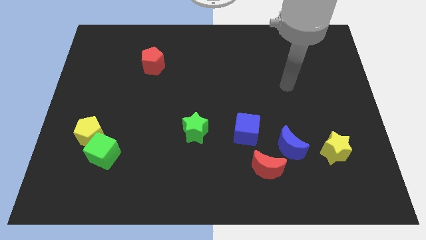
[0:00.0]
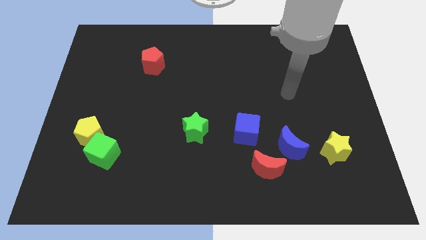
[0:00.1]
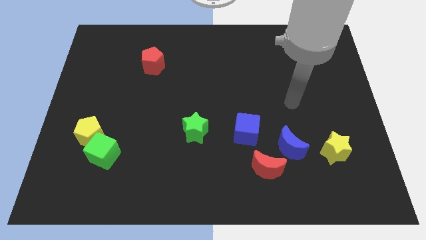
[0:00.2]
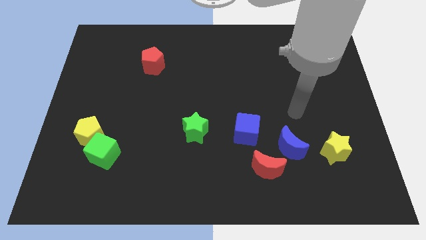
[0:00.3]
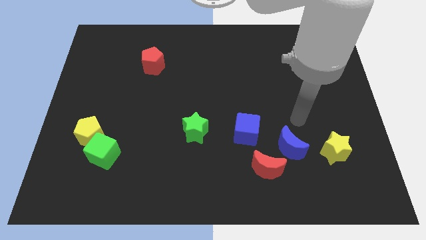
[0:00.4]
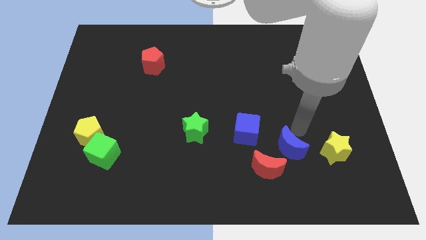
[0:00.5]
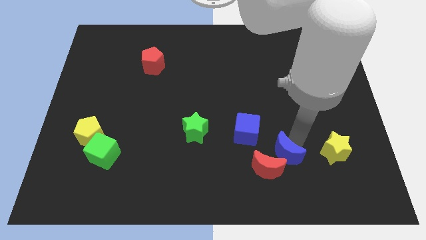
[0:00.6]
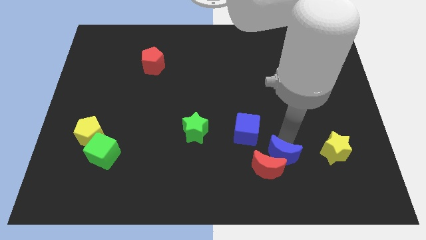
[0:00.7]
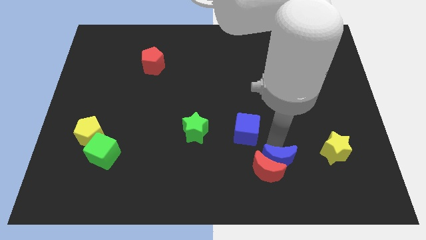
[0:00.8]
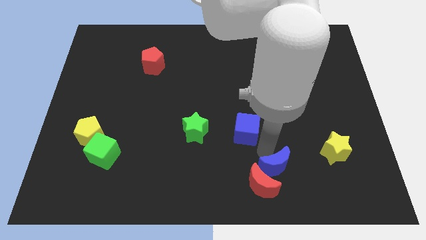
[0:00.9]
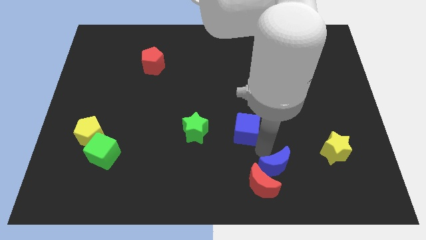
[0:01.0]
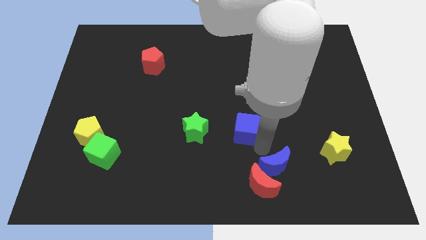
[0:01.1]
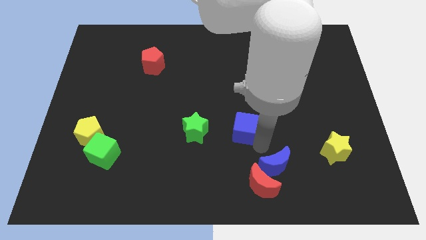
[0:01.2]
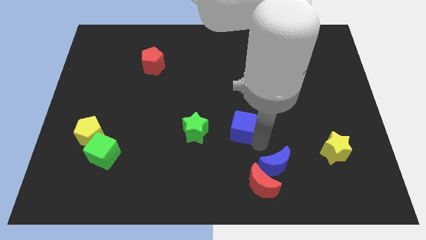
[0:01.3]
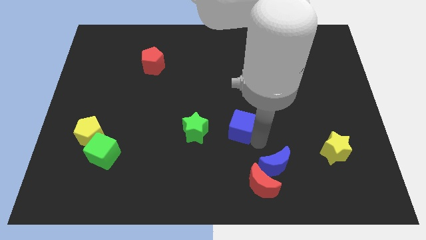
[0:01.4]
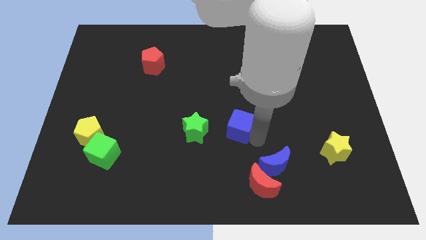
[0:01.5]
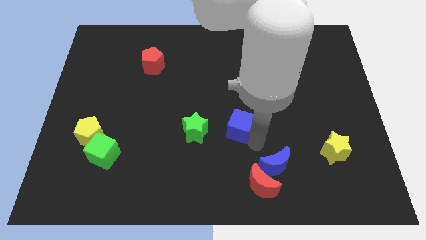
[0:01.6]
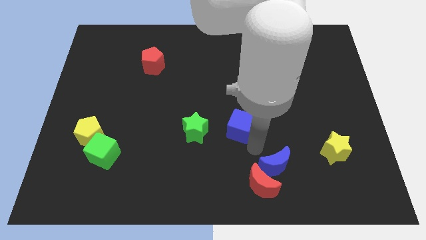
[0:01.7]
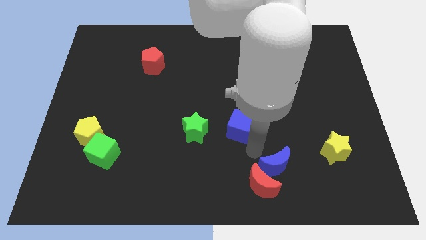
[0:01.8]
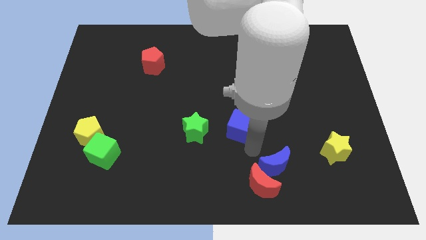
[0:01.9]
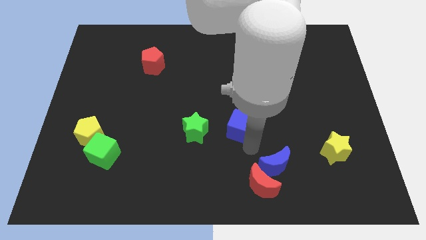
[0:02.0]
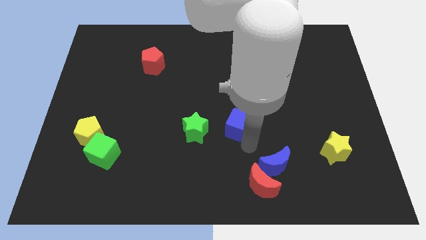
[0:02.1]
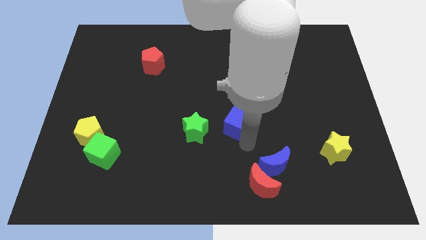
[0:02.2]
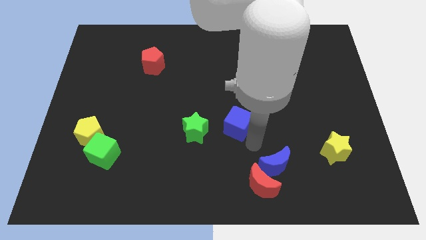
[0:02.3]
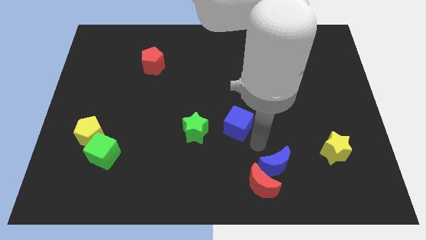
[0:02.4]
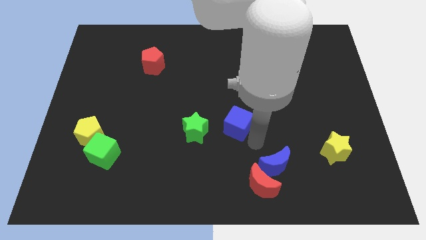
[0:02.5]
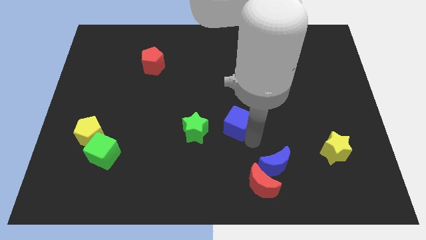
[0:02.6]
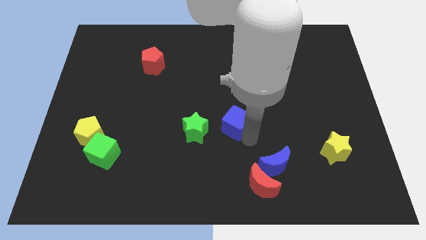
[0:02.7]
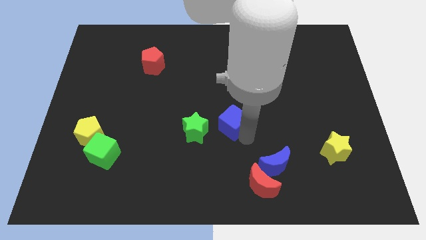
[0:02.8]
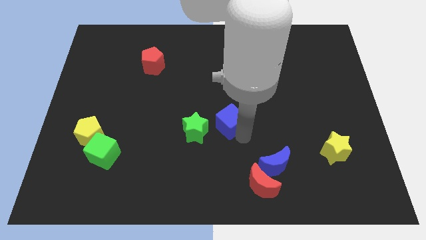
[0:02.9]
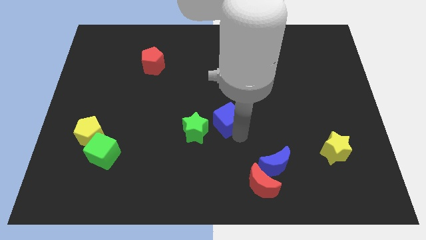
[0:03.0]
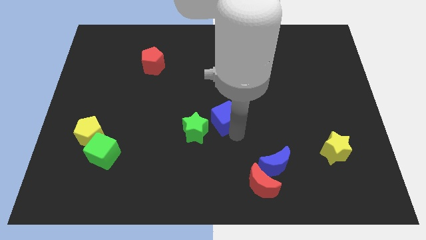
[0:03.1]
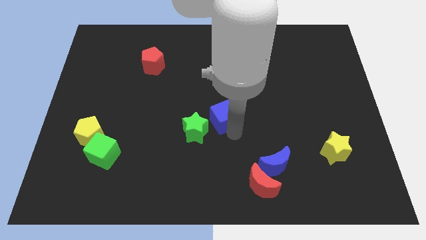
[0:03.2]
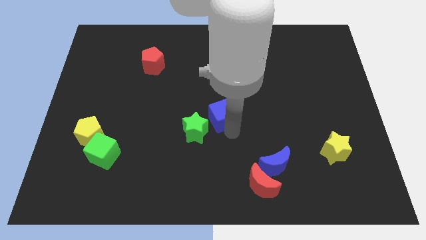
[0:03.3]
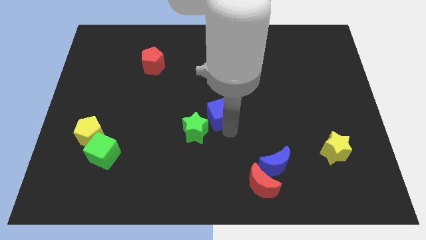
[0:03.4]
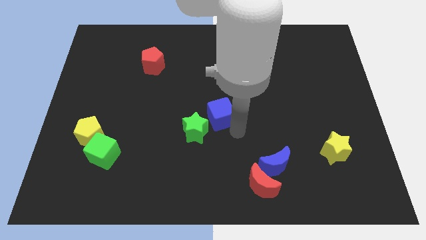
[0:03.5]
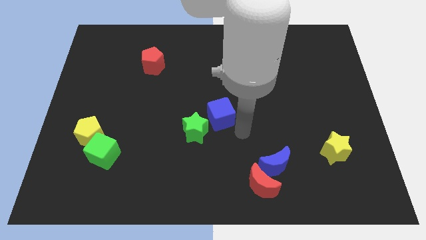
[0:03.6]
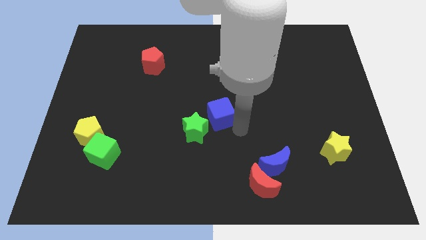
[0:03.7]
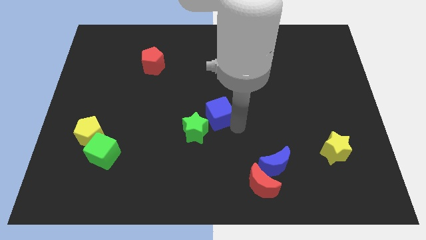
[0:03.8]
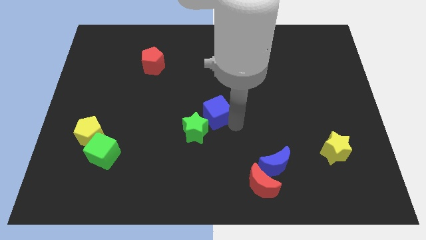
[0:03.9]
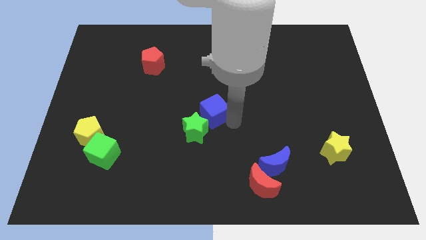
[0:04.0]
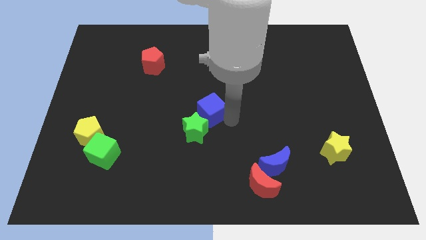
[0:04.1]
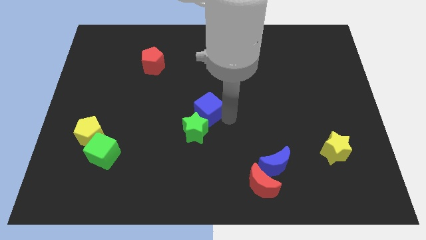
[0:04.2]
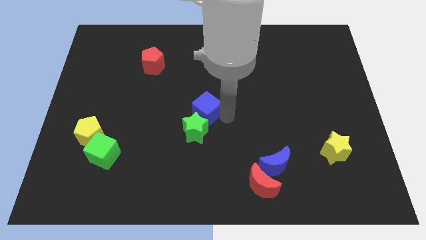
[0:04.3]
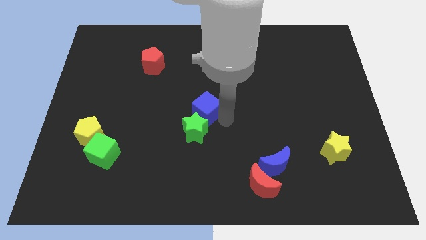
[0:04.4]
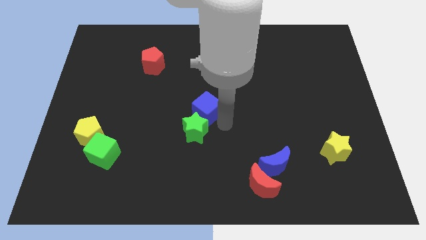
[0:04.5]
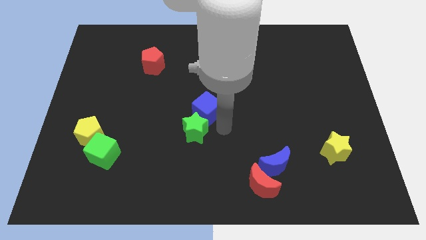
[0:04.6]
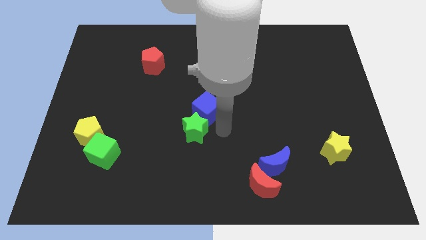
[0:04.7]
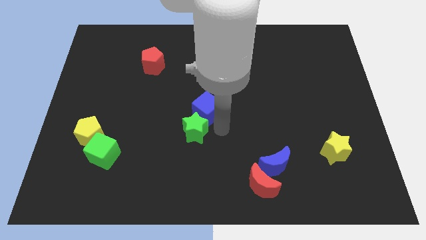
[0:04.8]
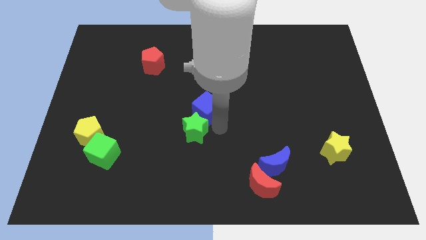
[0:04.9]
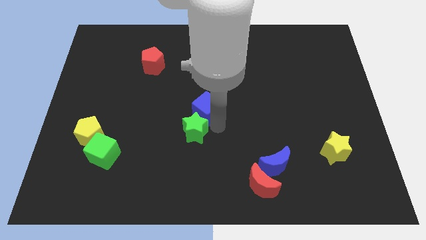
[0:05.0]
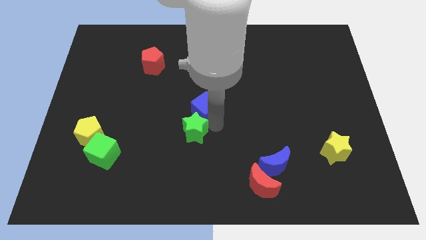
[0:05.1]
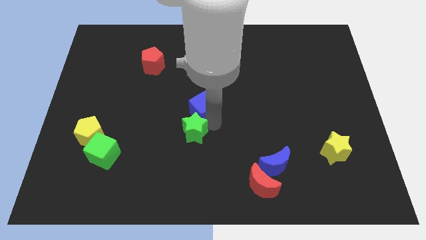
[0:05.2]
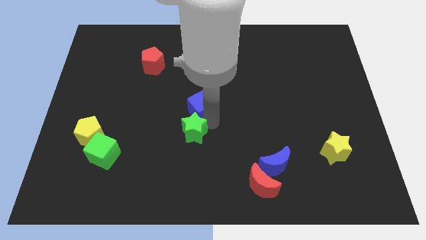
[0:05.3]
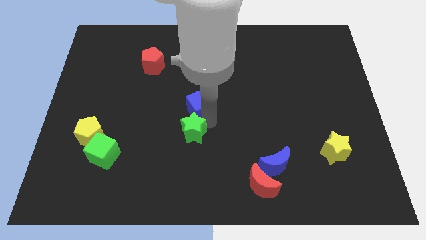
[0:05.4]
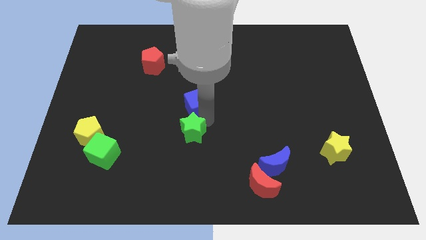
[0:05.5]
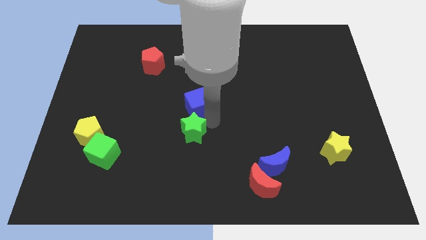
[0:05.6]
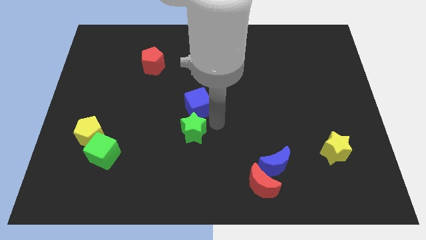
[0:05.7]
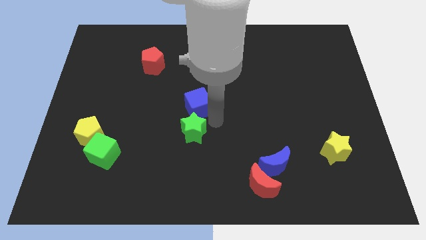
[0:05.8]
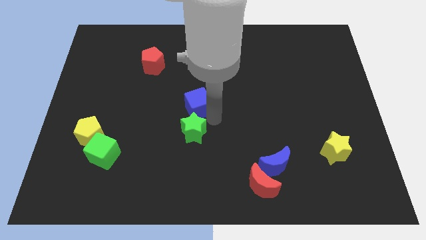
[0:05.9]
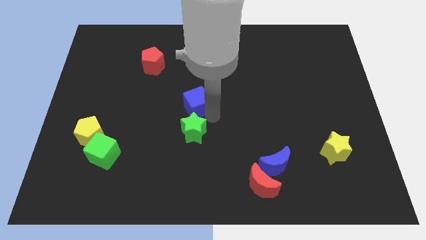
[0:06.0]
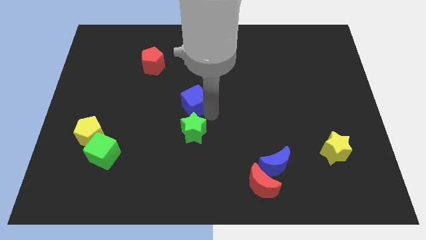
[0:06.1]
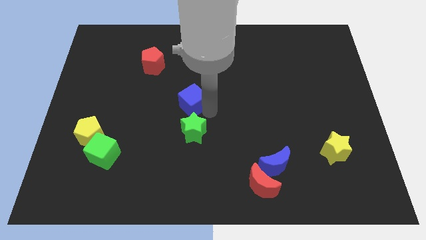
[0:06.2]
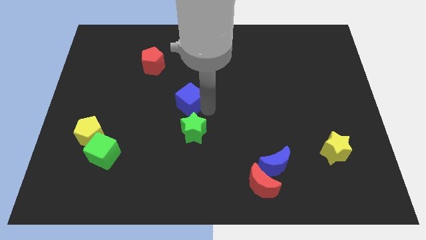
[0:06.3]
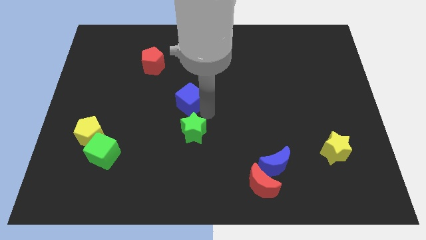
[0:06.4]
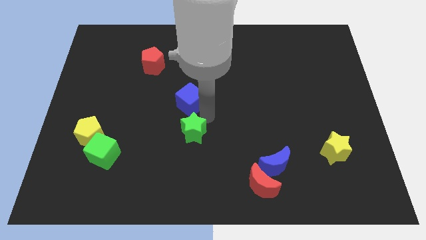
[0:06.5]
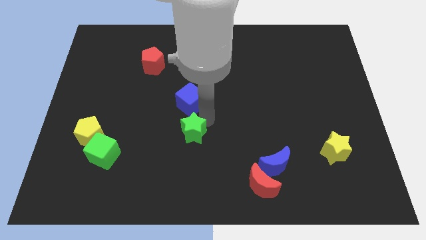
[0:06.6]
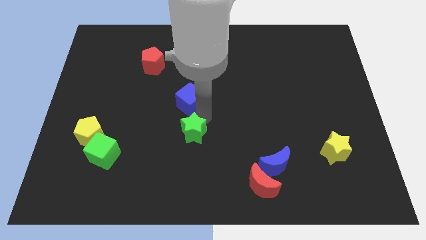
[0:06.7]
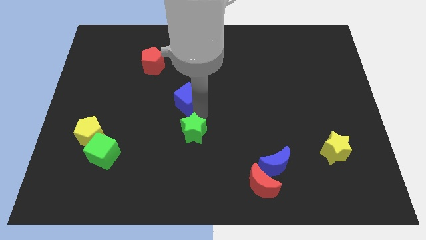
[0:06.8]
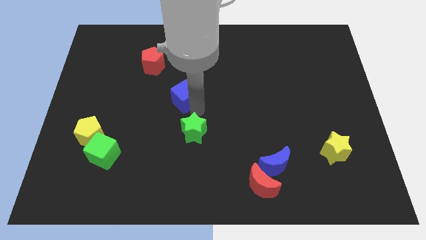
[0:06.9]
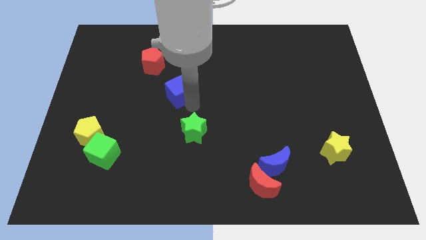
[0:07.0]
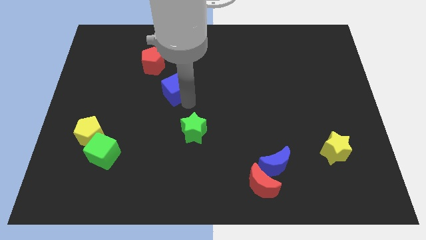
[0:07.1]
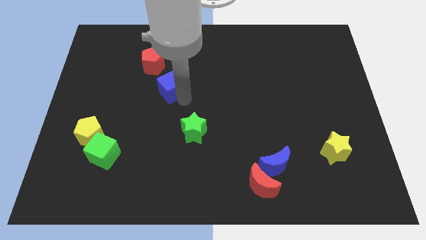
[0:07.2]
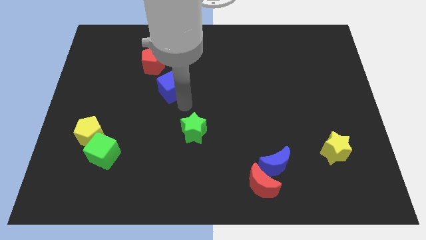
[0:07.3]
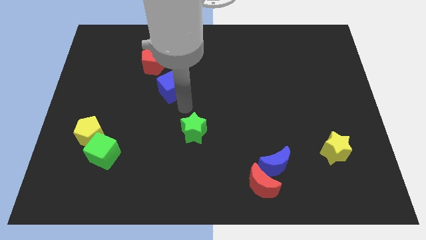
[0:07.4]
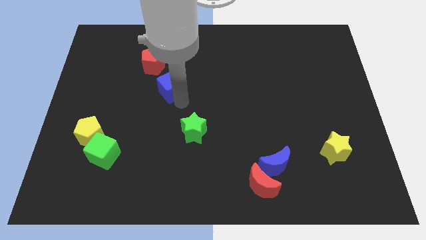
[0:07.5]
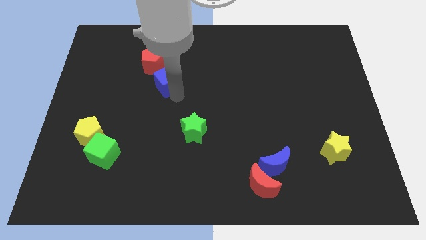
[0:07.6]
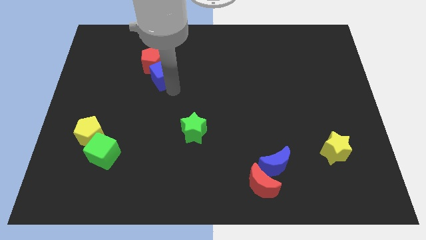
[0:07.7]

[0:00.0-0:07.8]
slide the blue cube towards the red pentagon
